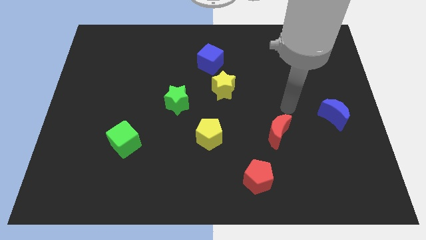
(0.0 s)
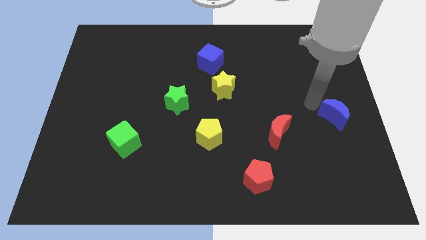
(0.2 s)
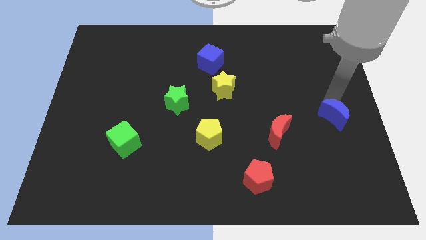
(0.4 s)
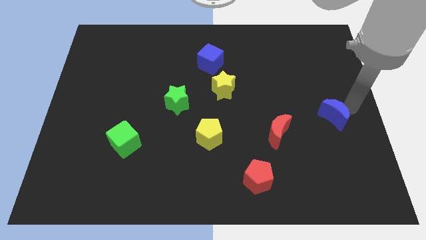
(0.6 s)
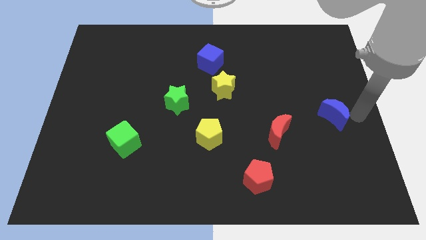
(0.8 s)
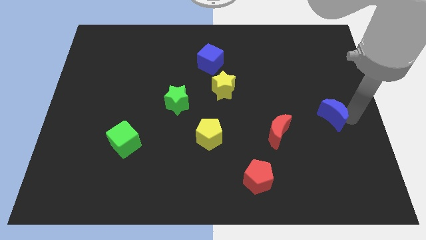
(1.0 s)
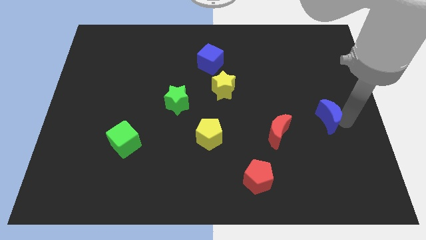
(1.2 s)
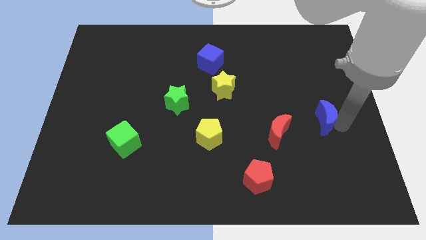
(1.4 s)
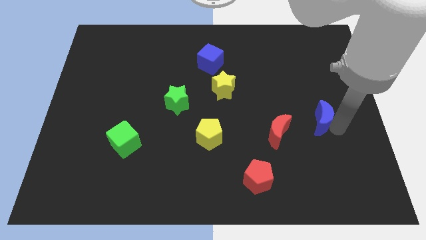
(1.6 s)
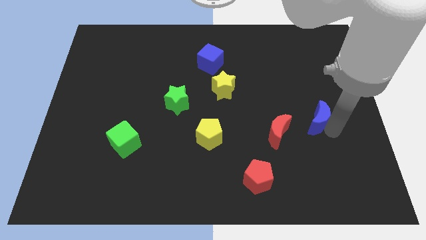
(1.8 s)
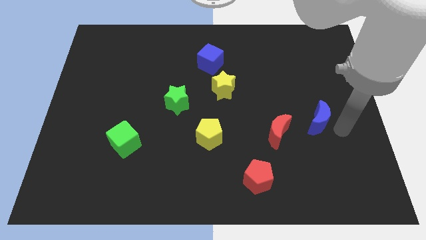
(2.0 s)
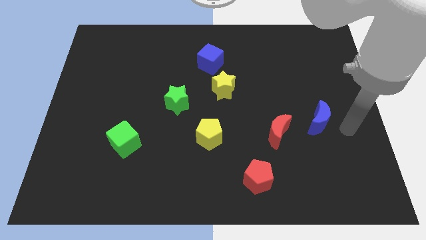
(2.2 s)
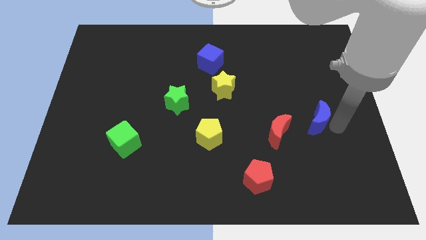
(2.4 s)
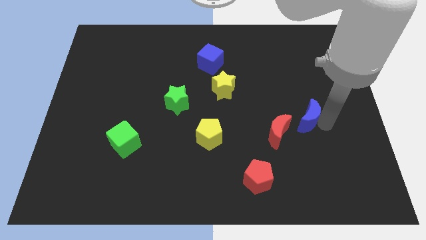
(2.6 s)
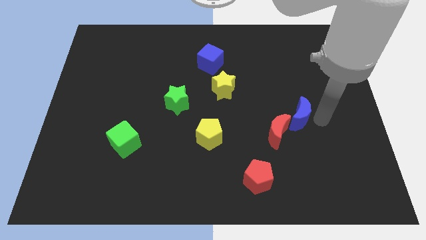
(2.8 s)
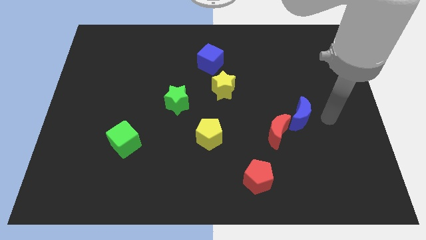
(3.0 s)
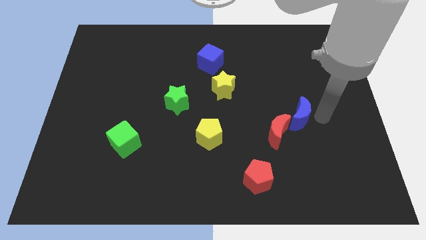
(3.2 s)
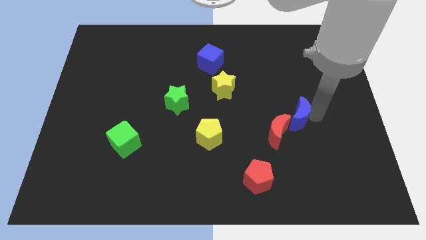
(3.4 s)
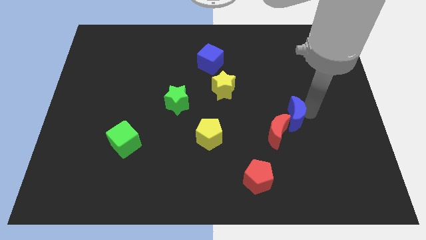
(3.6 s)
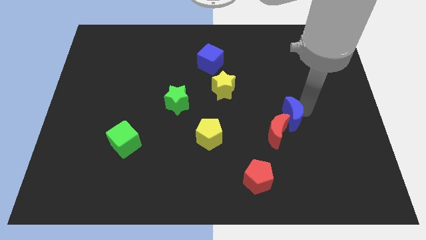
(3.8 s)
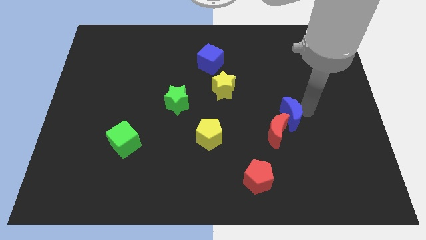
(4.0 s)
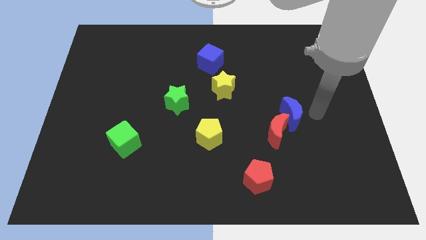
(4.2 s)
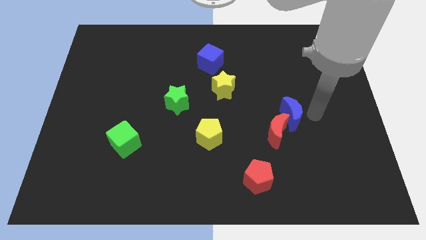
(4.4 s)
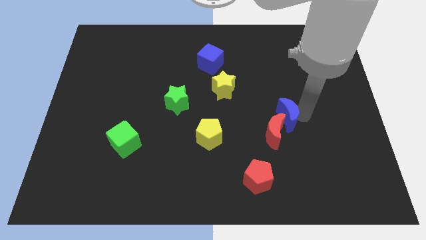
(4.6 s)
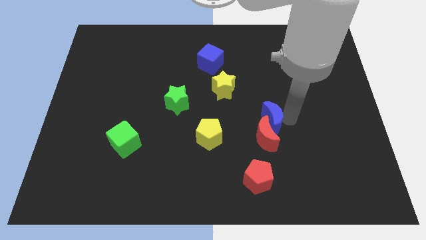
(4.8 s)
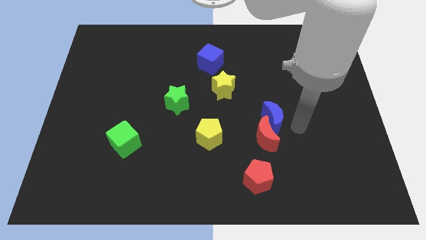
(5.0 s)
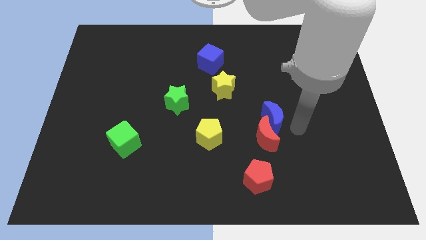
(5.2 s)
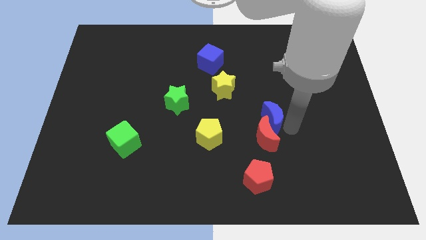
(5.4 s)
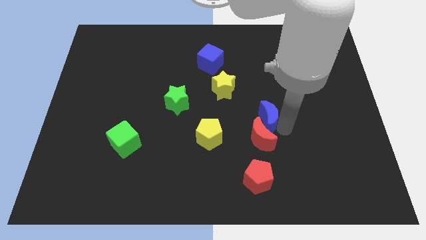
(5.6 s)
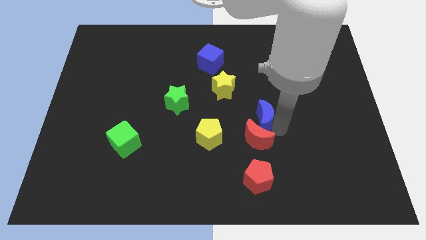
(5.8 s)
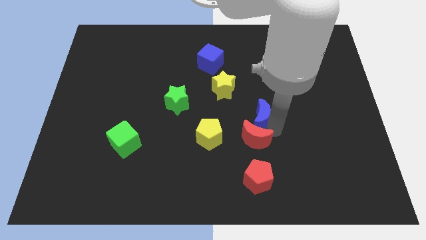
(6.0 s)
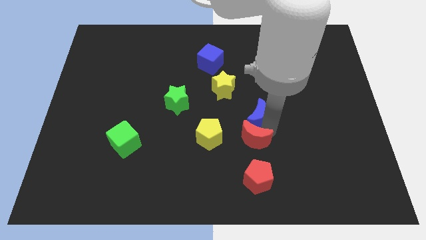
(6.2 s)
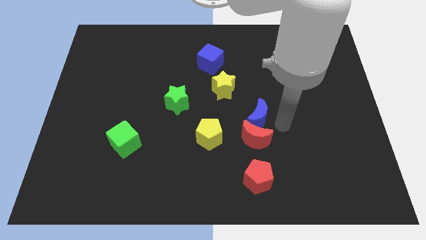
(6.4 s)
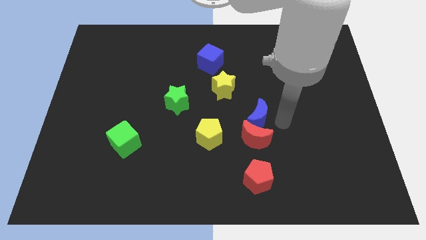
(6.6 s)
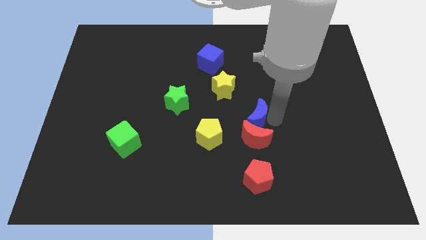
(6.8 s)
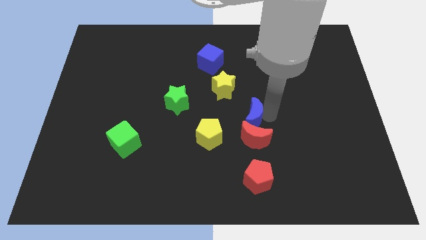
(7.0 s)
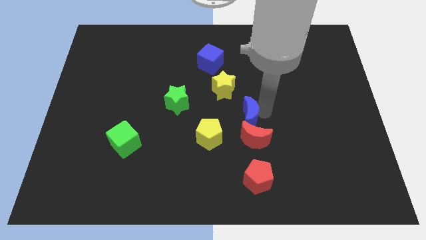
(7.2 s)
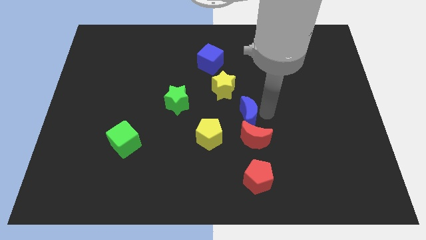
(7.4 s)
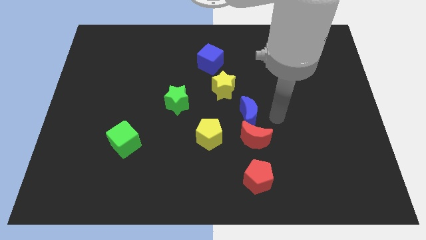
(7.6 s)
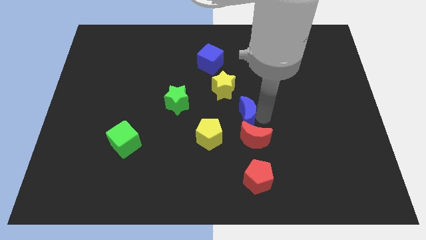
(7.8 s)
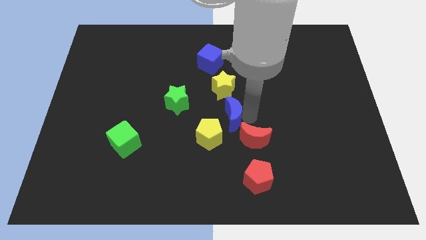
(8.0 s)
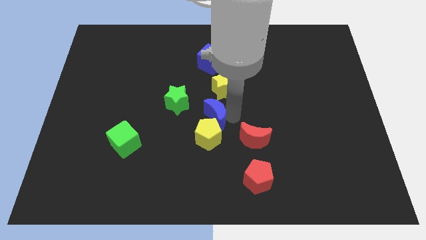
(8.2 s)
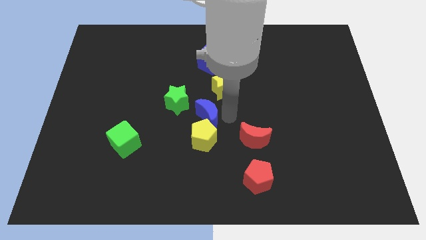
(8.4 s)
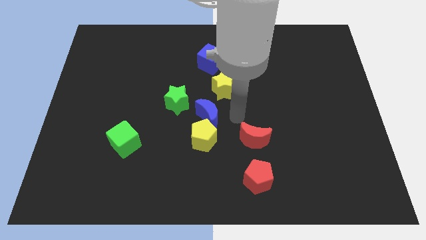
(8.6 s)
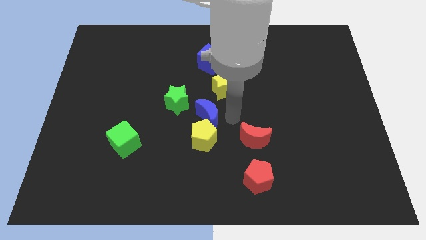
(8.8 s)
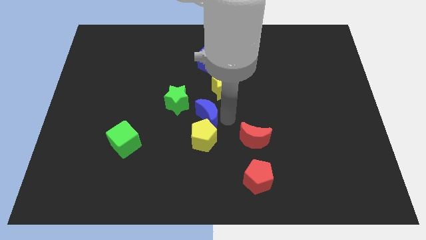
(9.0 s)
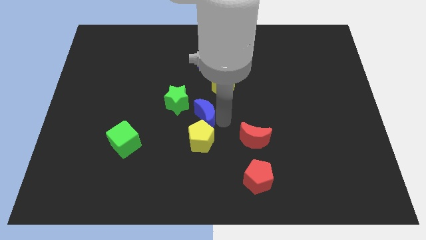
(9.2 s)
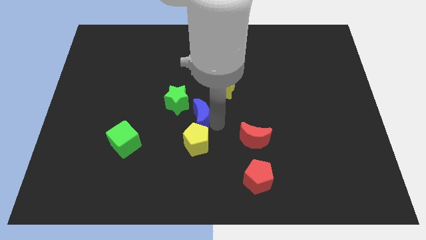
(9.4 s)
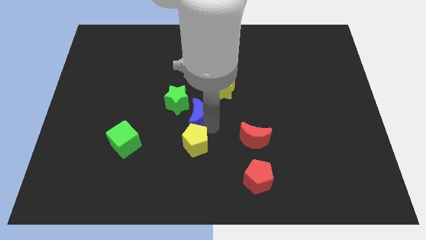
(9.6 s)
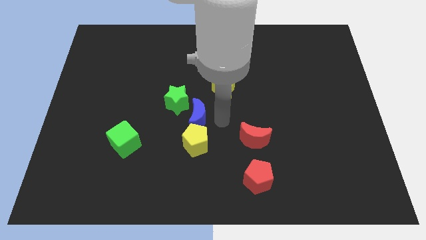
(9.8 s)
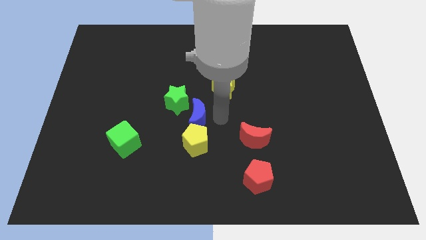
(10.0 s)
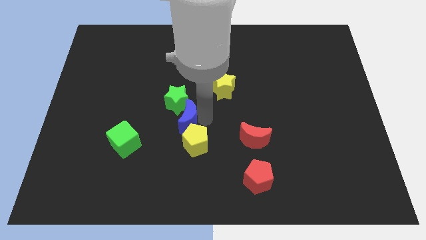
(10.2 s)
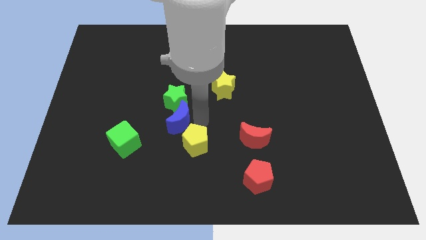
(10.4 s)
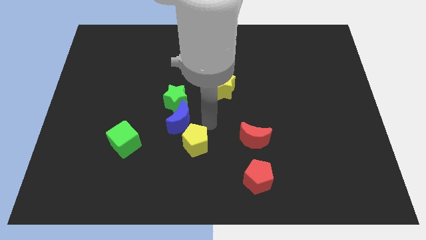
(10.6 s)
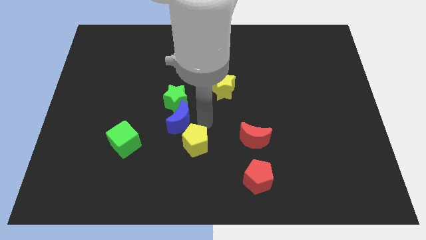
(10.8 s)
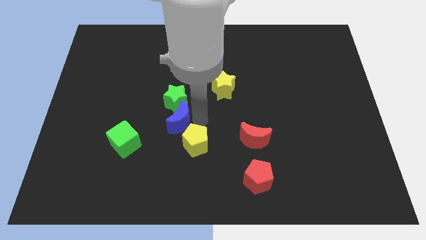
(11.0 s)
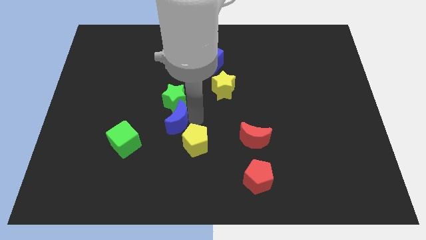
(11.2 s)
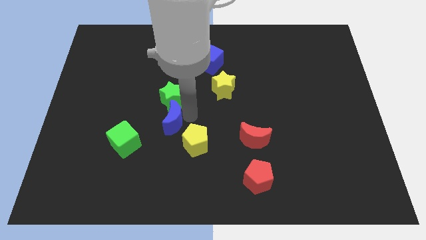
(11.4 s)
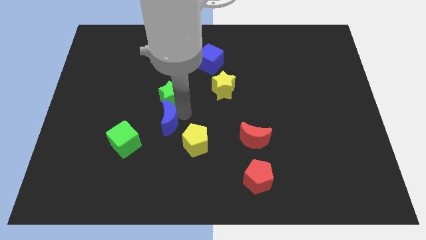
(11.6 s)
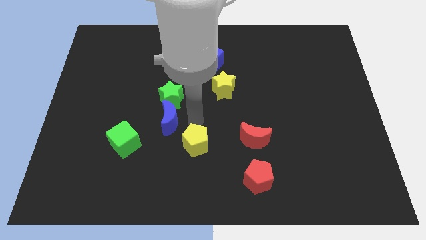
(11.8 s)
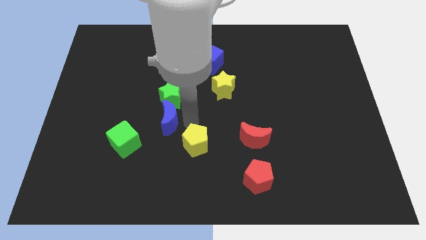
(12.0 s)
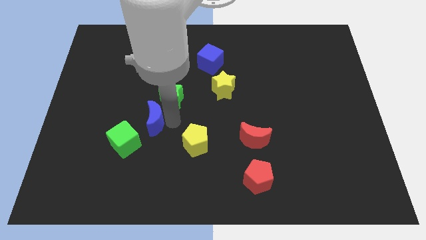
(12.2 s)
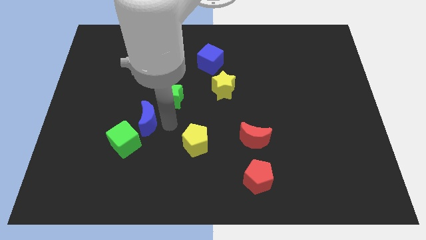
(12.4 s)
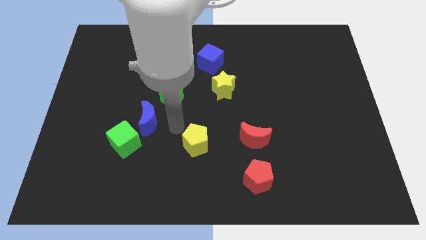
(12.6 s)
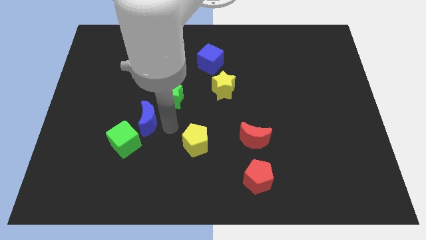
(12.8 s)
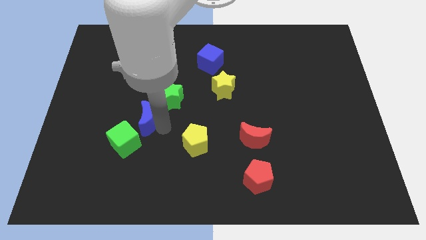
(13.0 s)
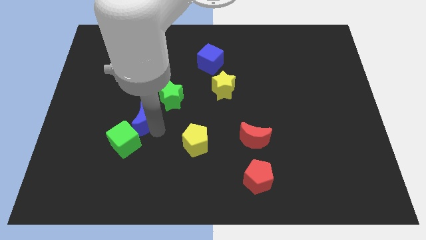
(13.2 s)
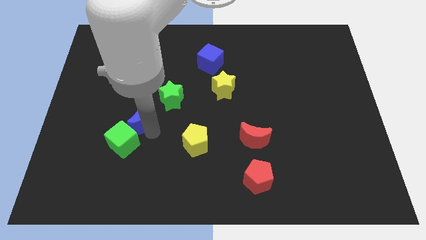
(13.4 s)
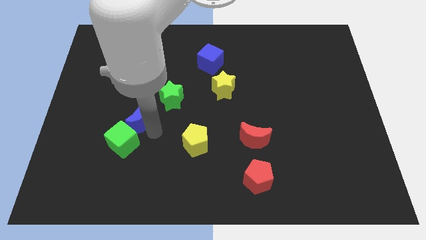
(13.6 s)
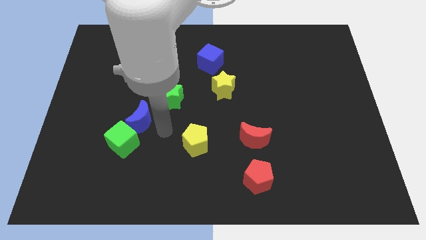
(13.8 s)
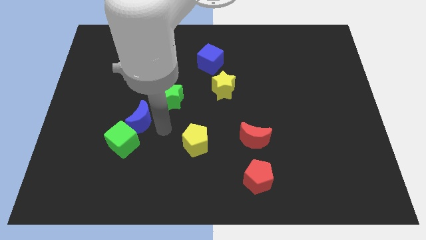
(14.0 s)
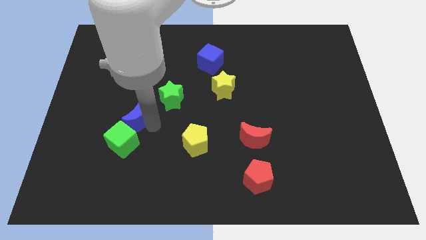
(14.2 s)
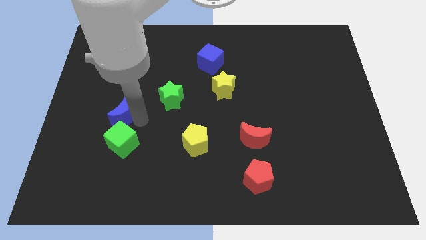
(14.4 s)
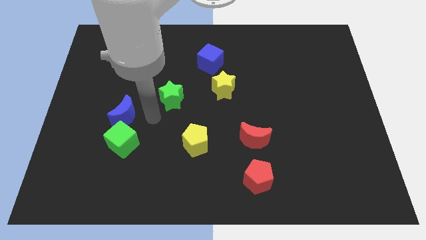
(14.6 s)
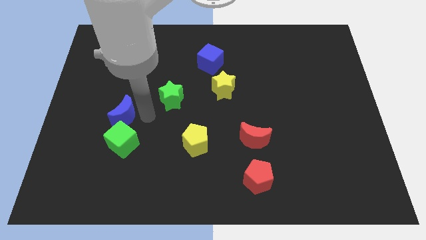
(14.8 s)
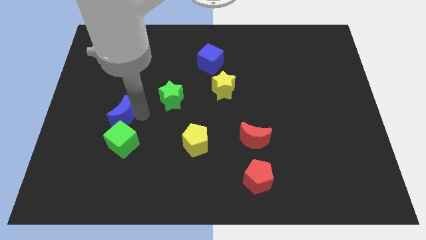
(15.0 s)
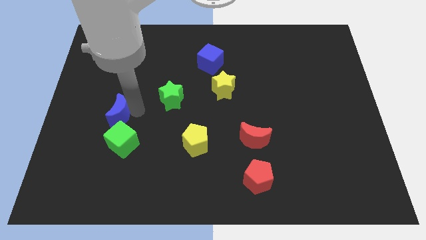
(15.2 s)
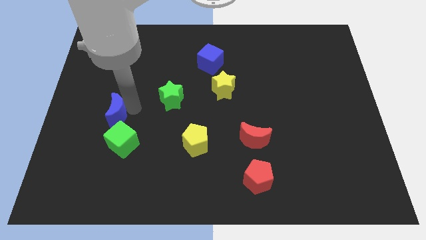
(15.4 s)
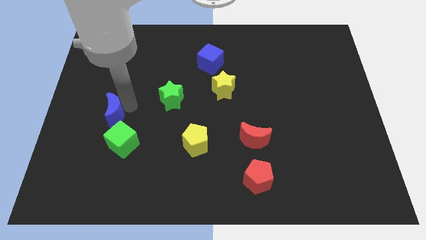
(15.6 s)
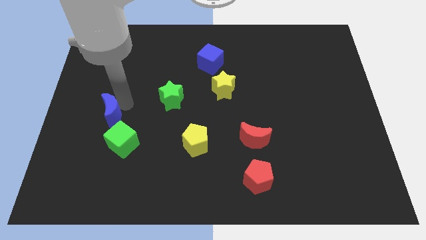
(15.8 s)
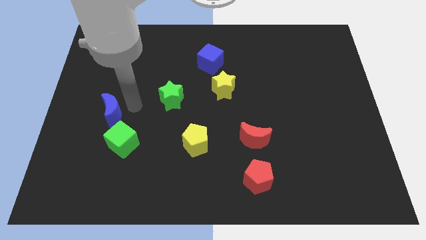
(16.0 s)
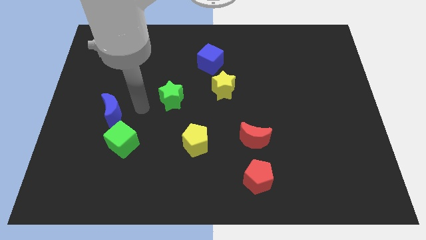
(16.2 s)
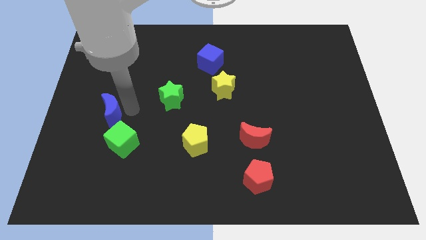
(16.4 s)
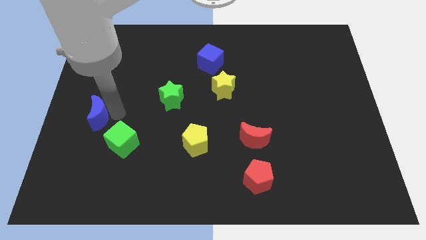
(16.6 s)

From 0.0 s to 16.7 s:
push the blue moon to the center left
